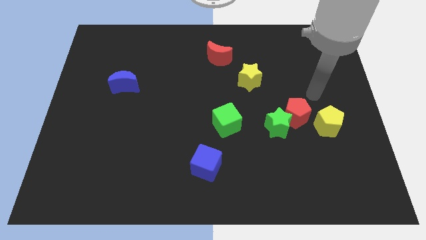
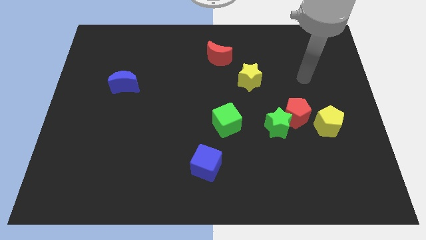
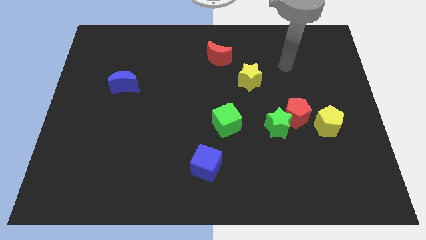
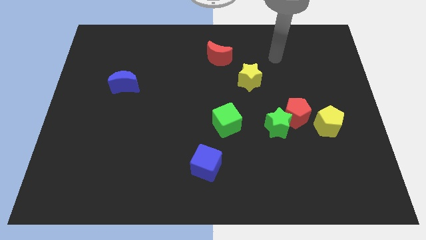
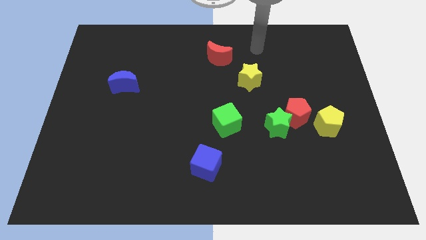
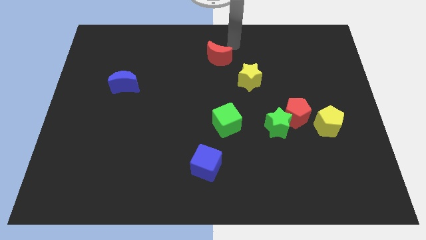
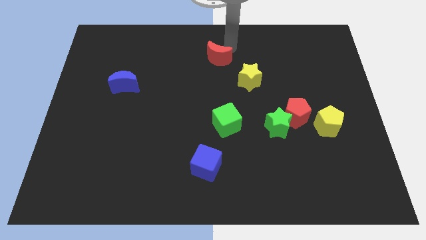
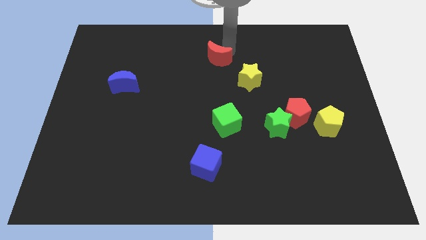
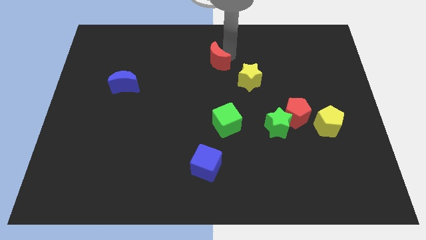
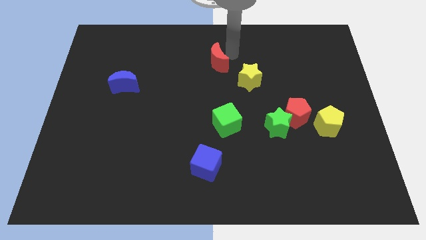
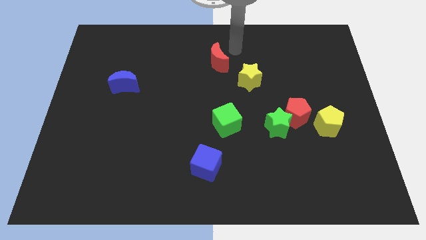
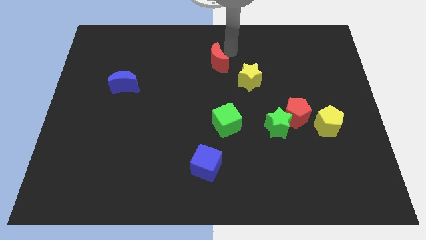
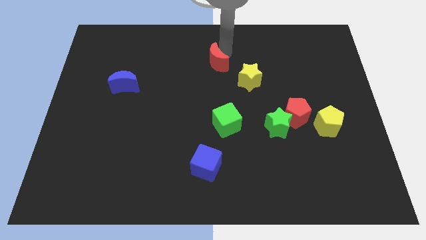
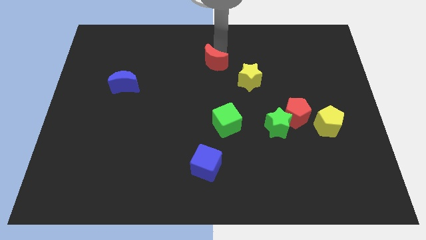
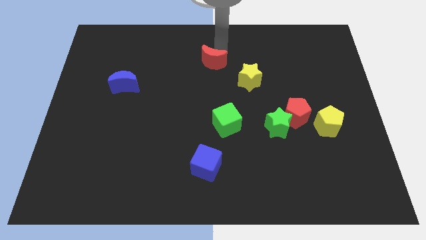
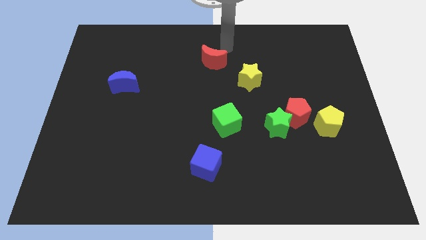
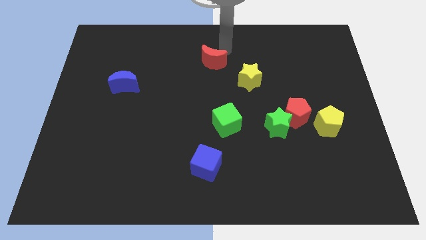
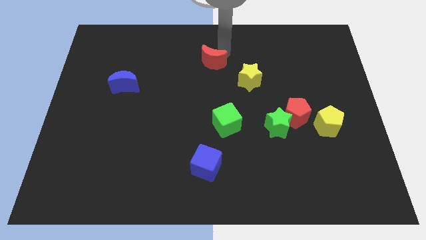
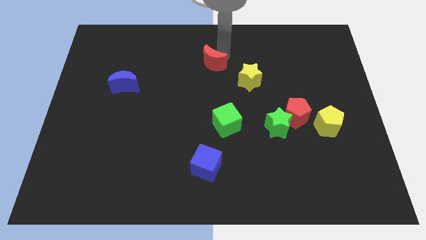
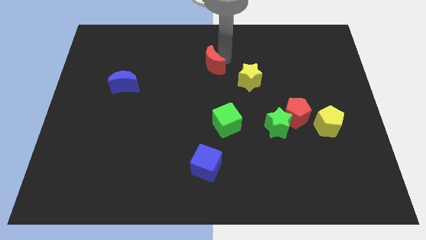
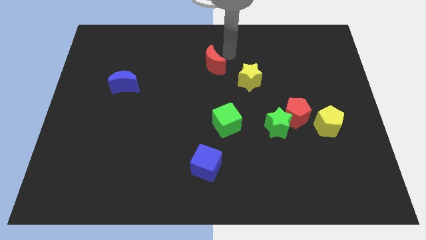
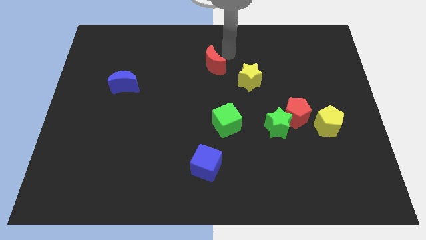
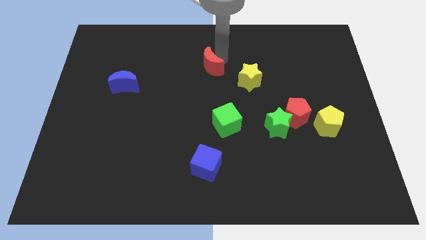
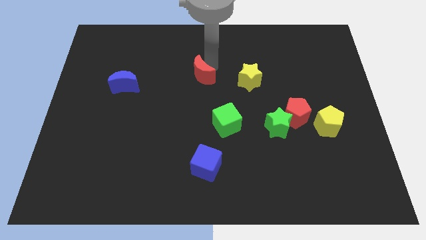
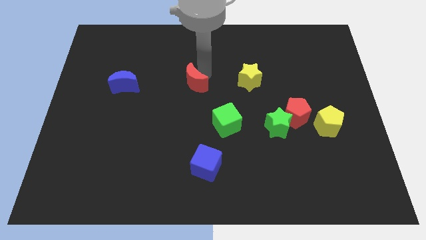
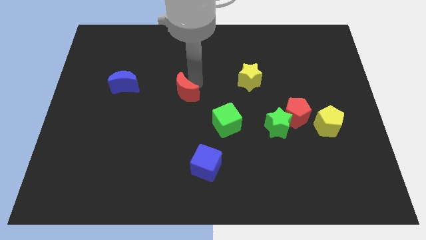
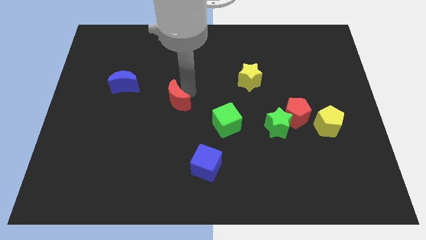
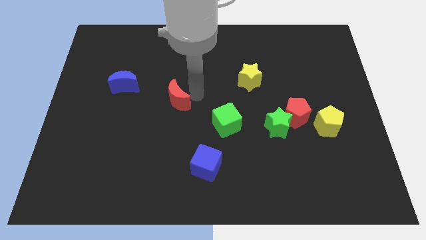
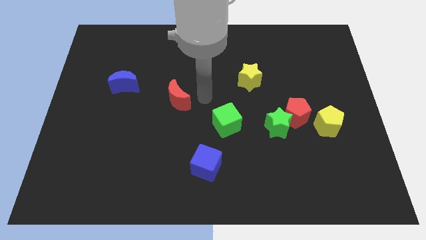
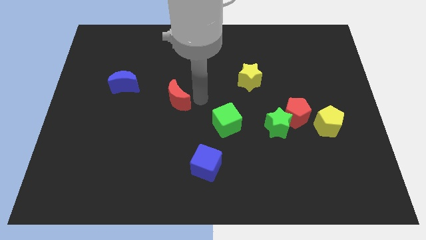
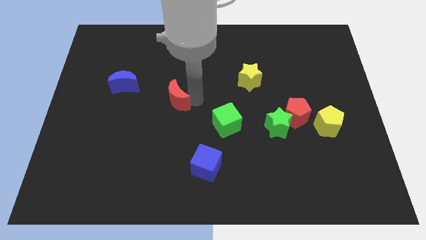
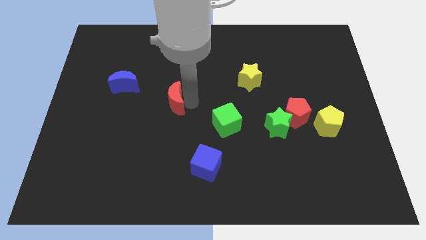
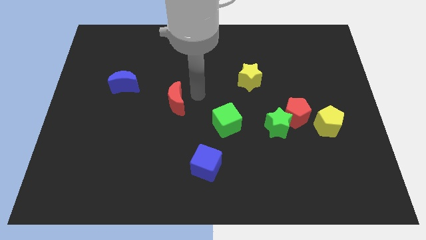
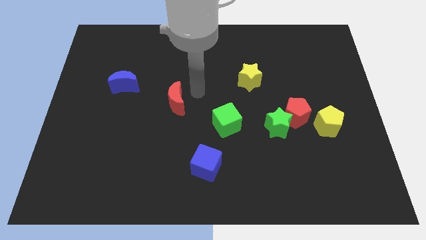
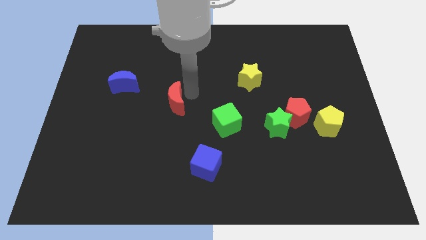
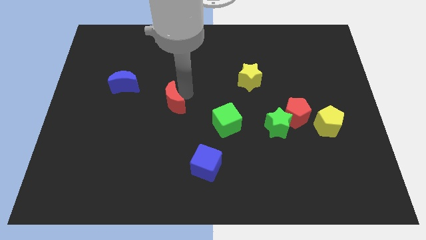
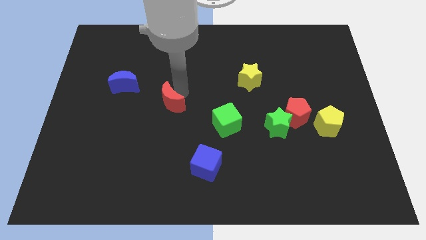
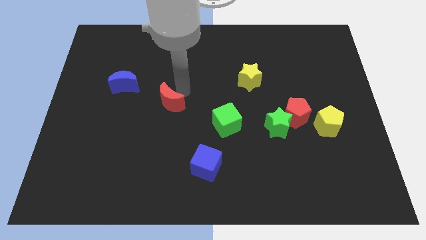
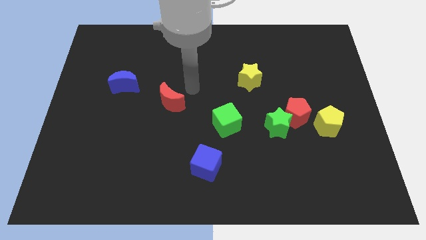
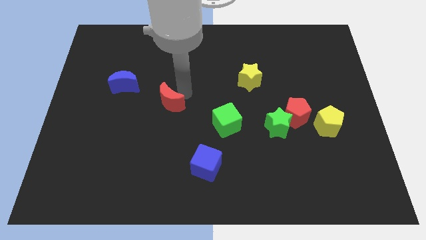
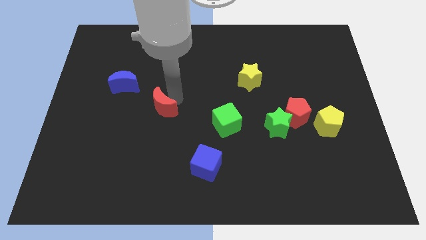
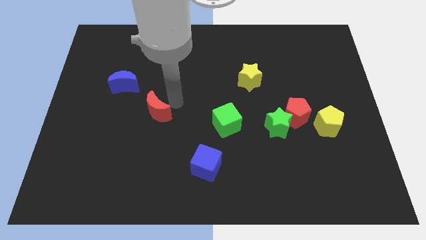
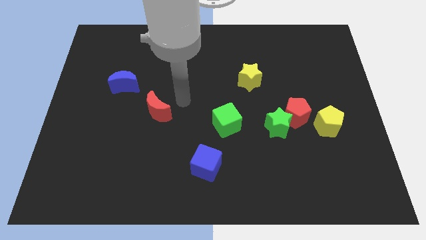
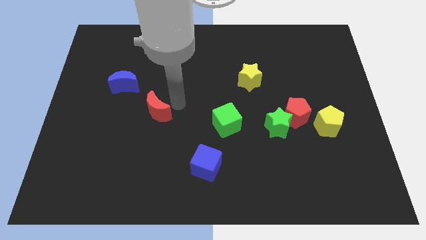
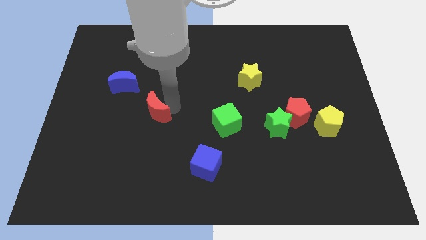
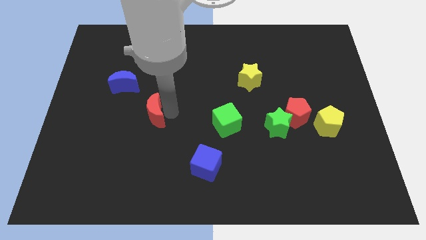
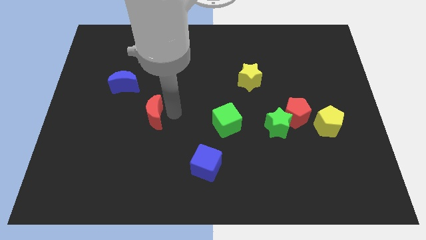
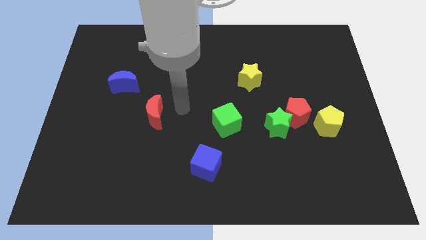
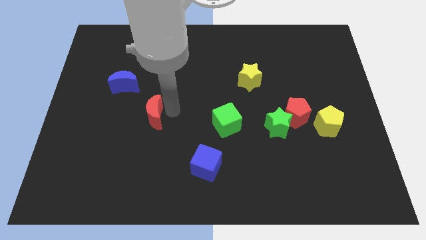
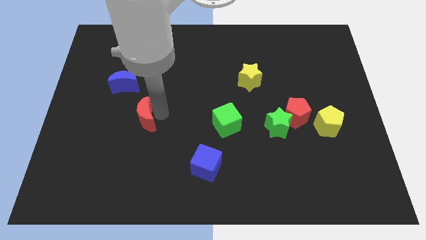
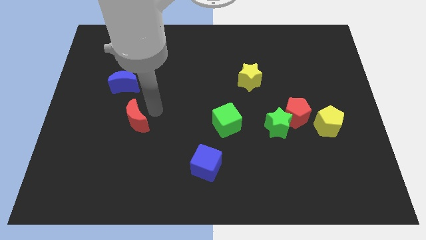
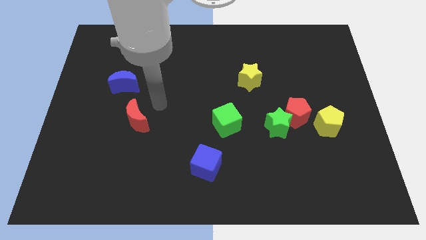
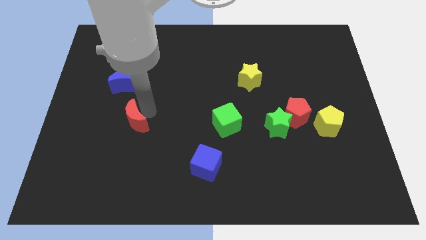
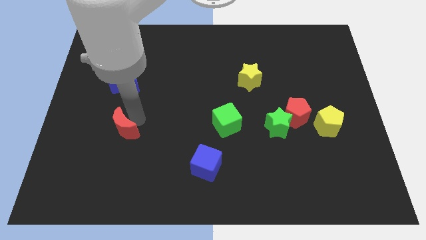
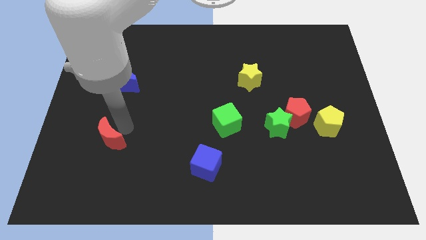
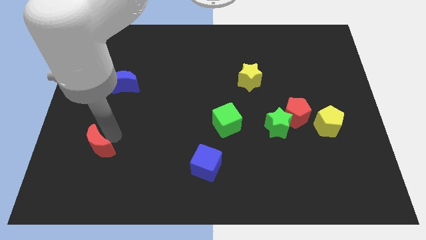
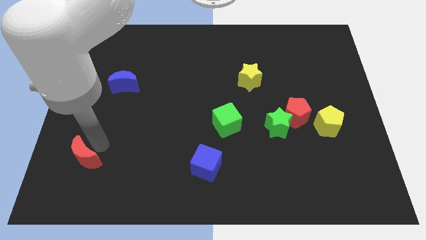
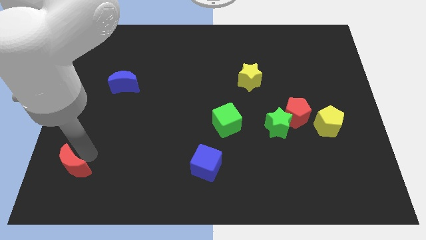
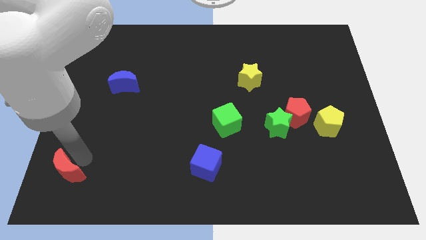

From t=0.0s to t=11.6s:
move the red moon to the bottom left corner

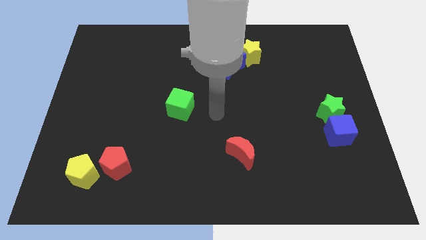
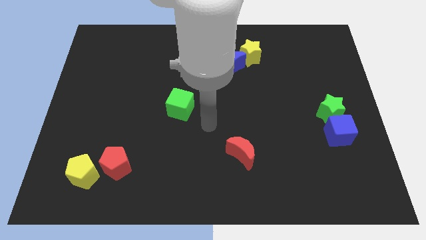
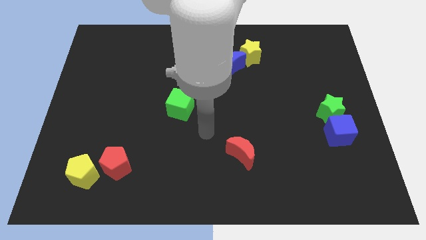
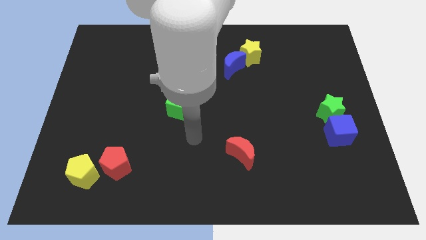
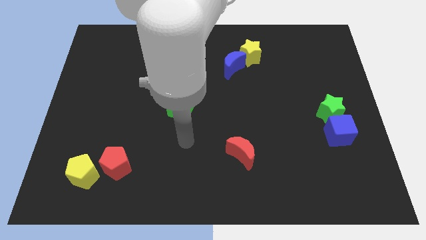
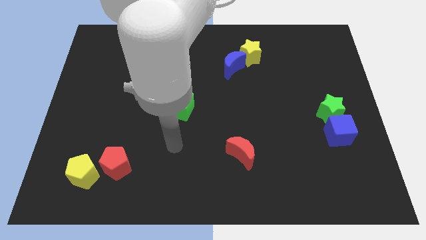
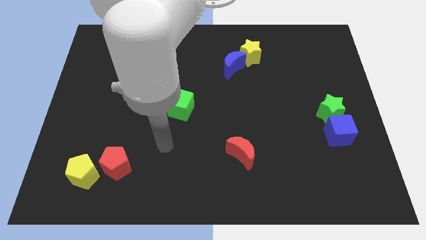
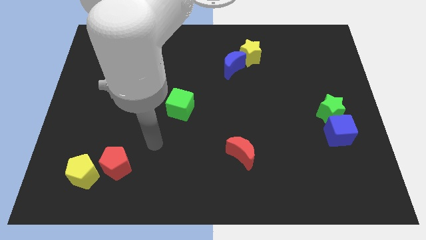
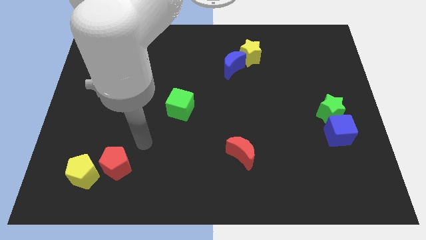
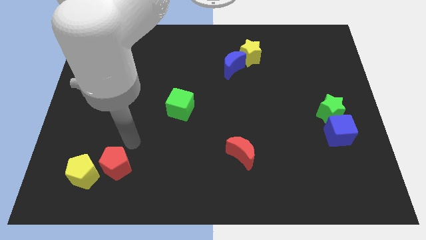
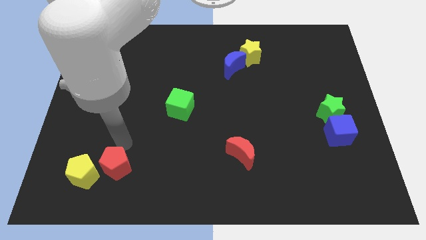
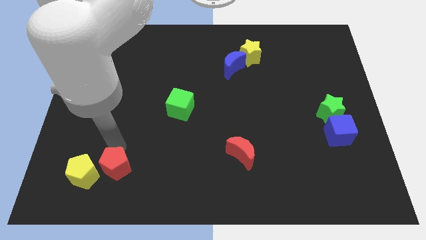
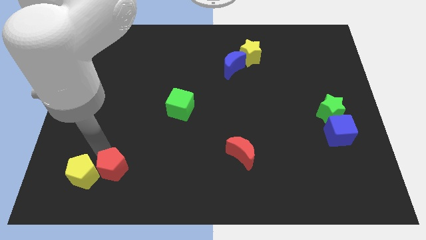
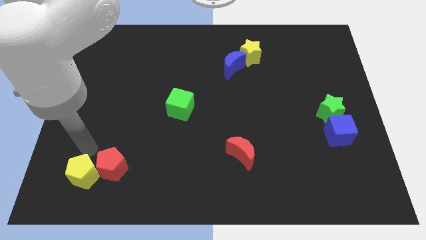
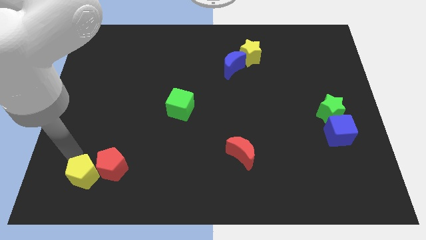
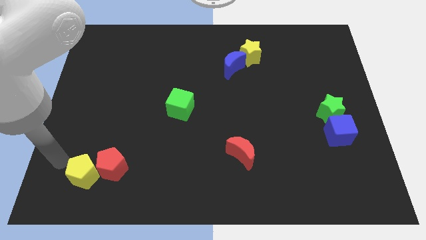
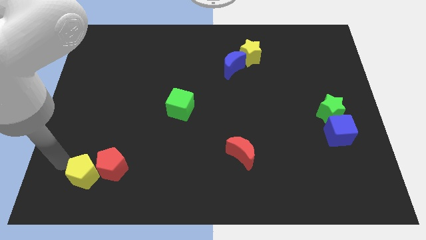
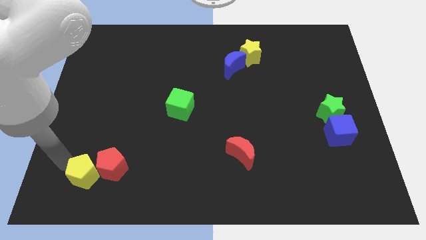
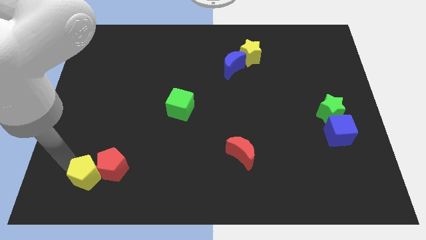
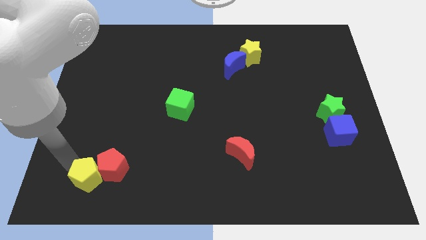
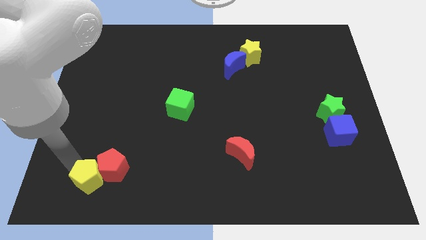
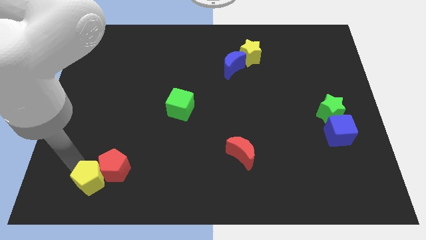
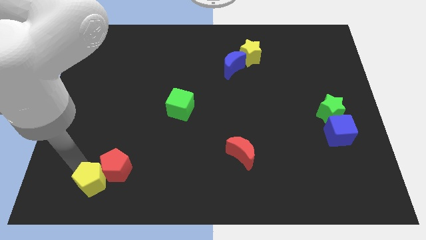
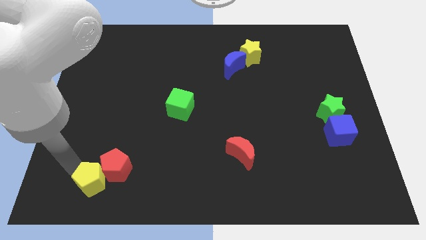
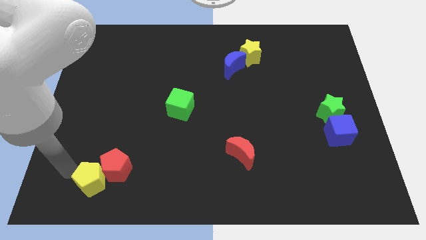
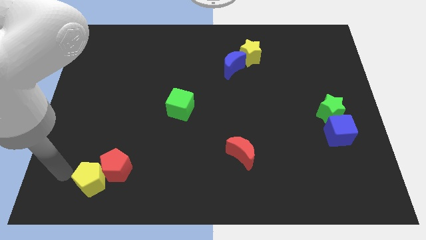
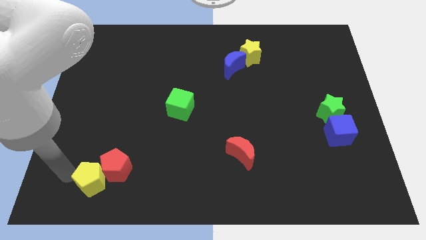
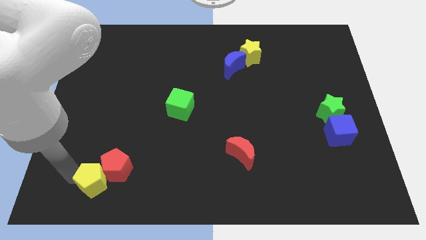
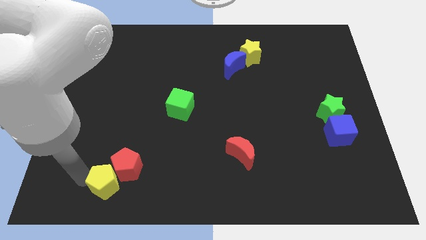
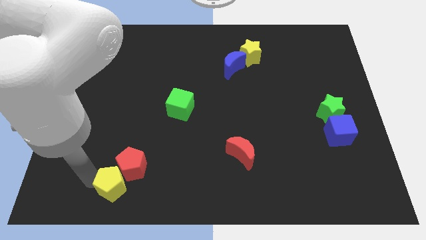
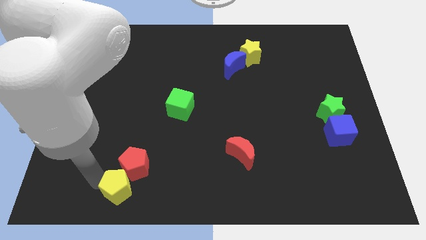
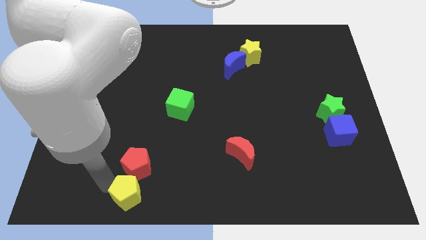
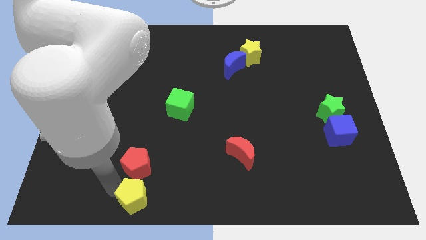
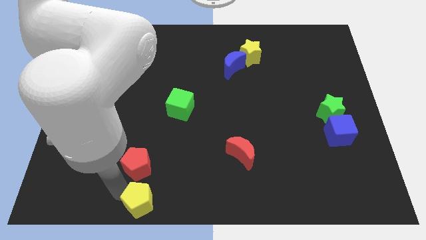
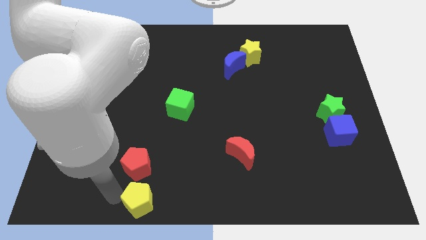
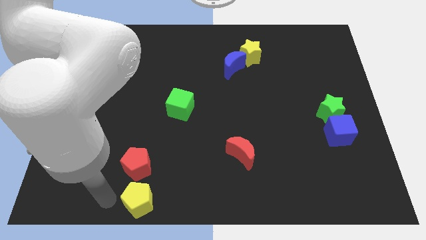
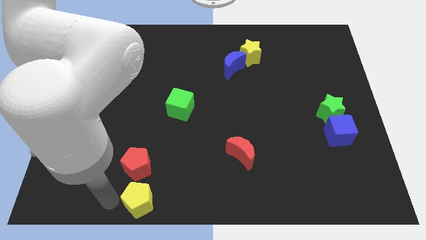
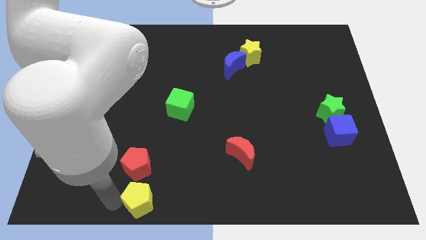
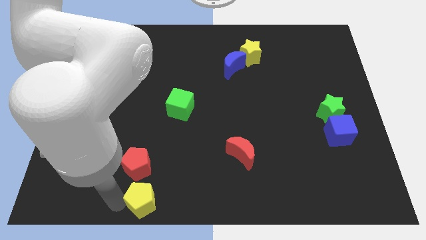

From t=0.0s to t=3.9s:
slide the yellow pentagon to the bottom
